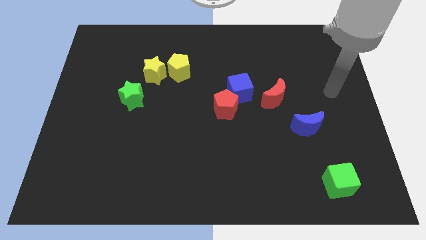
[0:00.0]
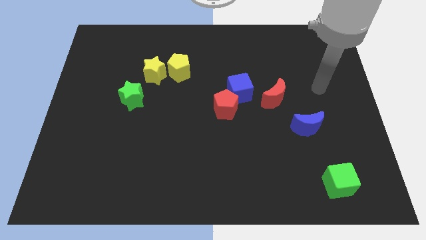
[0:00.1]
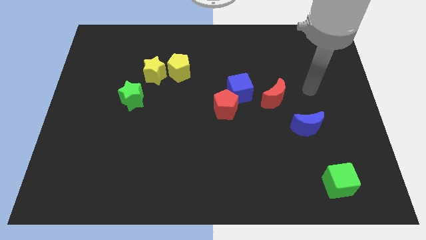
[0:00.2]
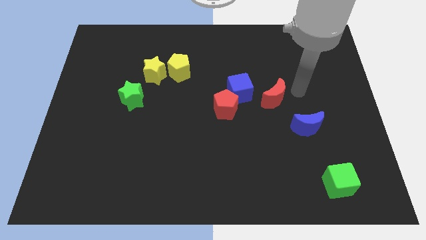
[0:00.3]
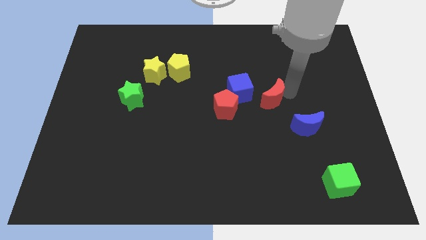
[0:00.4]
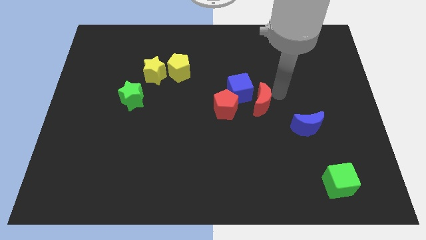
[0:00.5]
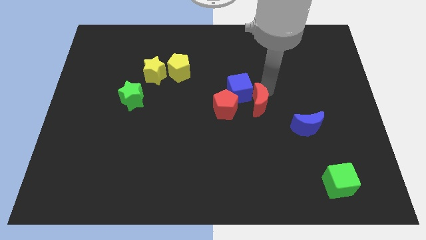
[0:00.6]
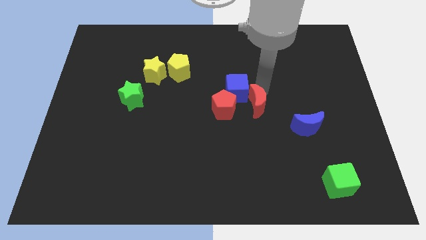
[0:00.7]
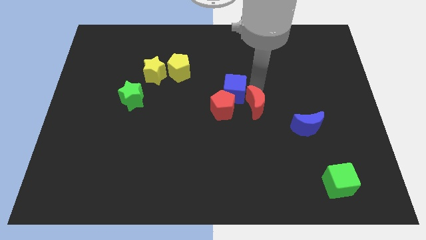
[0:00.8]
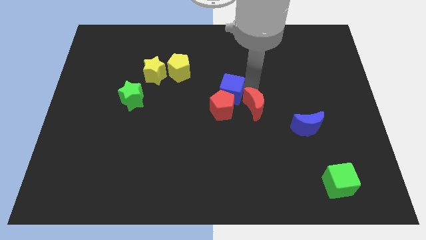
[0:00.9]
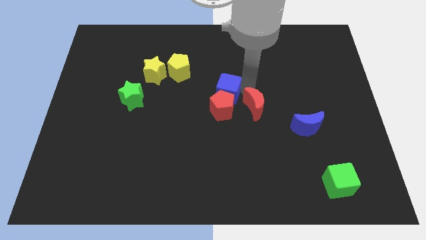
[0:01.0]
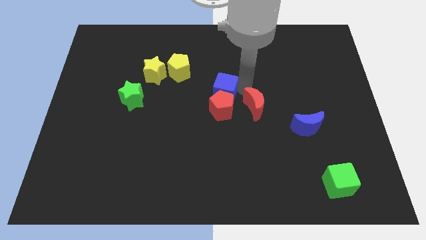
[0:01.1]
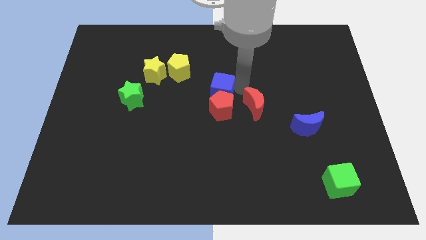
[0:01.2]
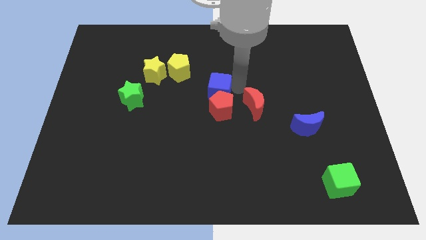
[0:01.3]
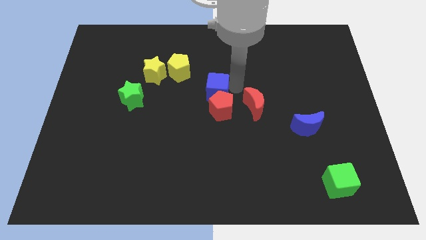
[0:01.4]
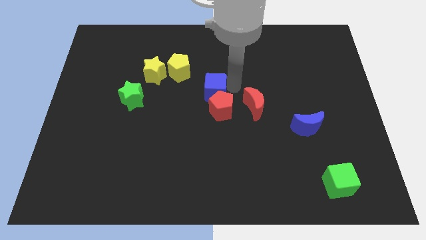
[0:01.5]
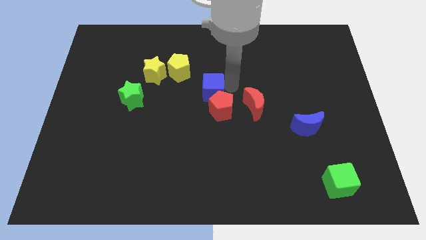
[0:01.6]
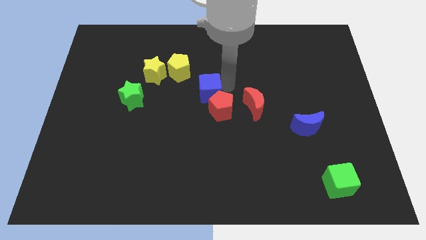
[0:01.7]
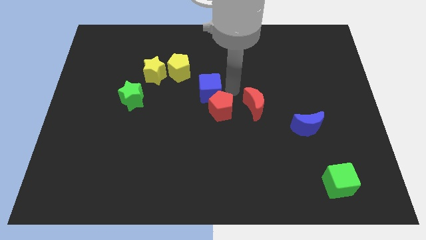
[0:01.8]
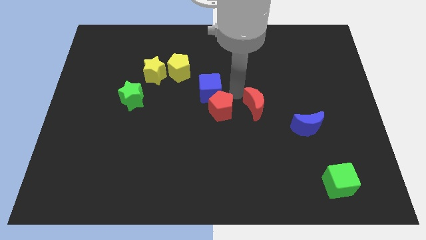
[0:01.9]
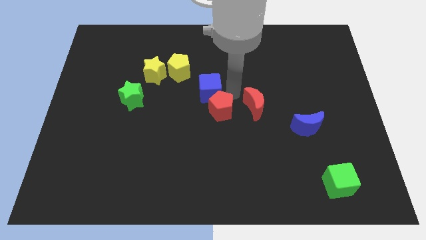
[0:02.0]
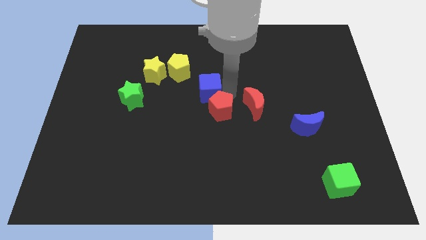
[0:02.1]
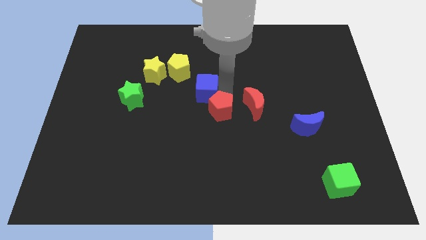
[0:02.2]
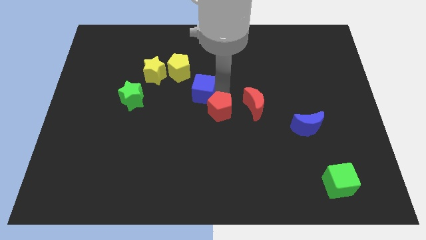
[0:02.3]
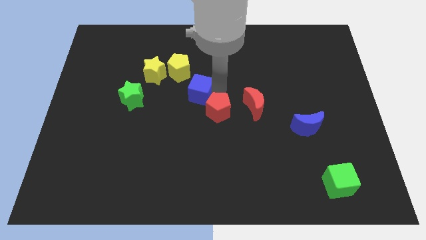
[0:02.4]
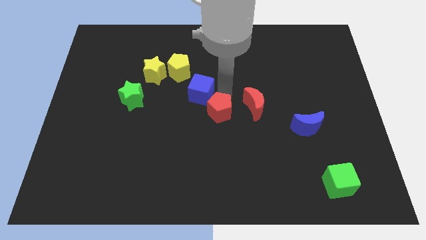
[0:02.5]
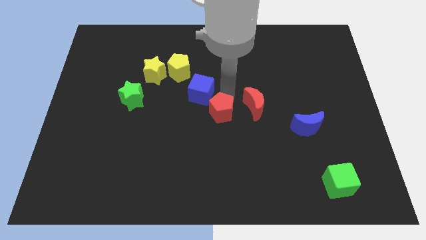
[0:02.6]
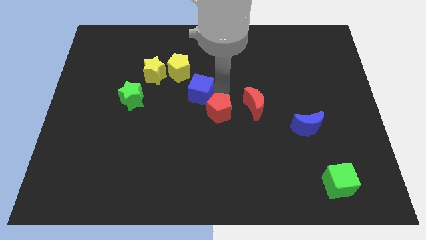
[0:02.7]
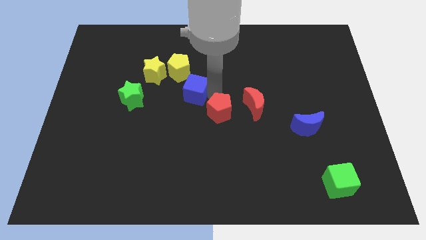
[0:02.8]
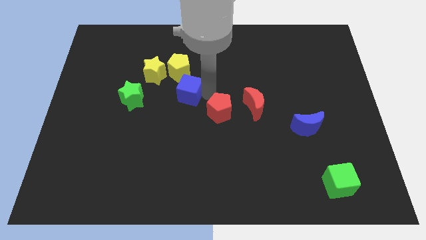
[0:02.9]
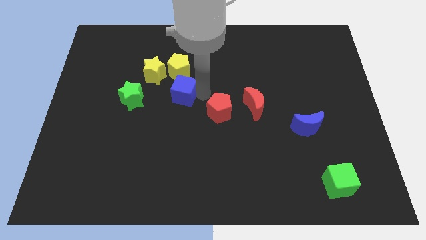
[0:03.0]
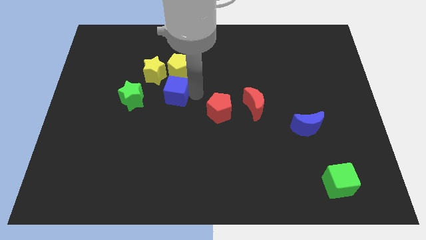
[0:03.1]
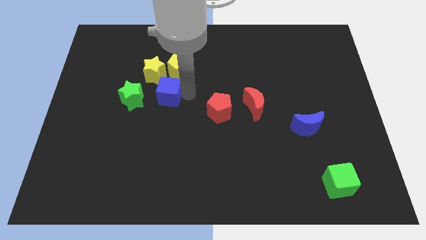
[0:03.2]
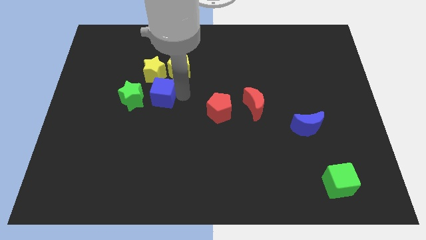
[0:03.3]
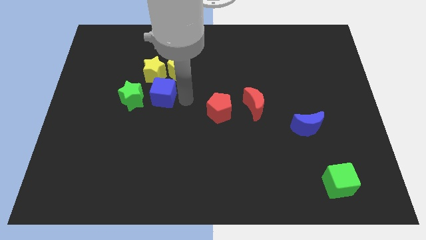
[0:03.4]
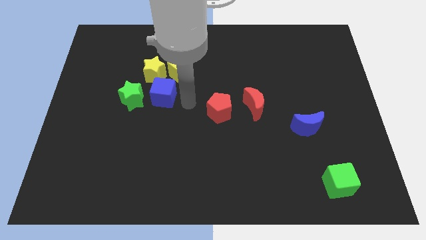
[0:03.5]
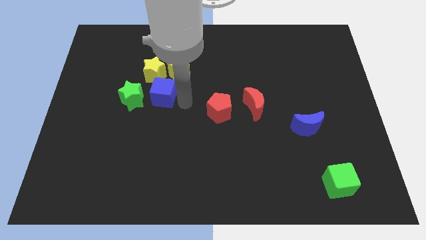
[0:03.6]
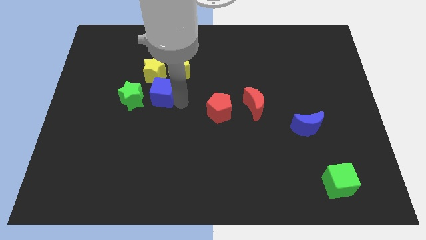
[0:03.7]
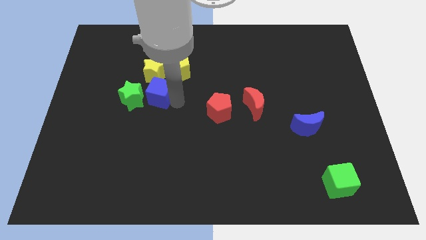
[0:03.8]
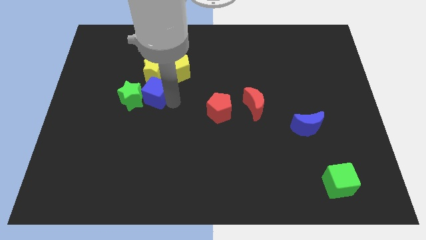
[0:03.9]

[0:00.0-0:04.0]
slide the blue cube to the left

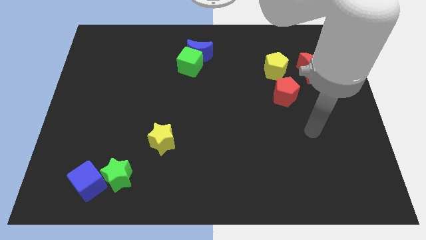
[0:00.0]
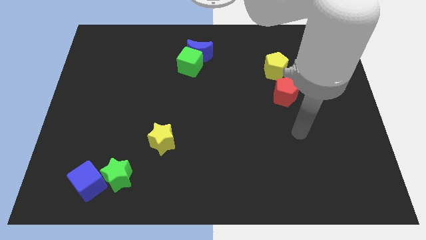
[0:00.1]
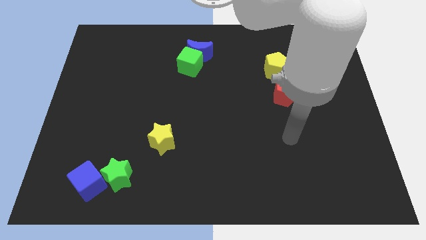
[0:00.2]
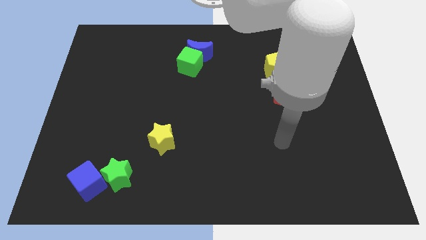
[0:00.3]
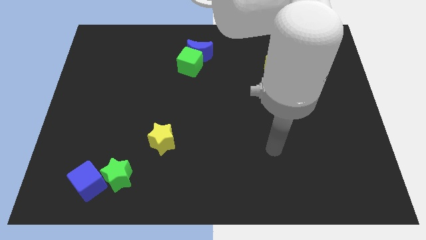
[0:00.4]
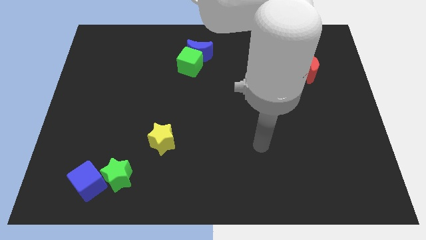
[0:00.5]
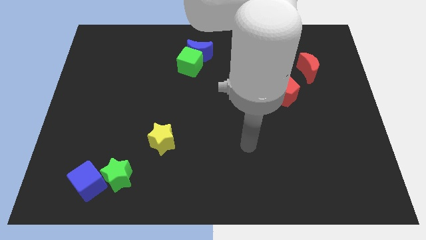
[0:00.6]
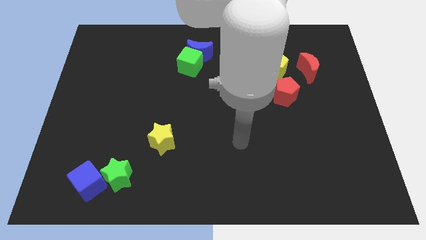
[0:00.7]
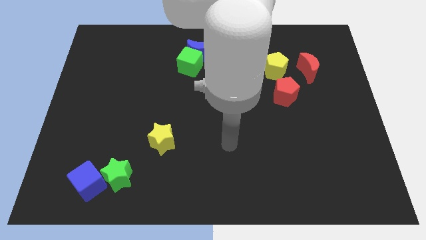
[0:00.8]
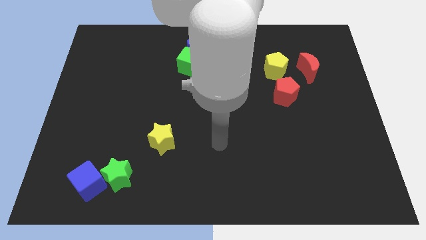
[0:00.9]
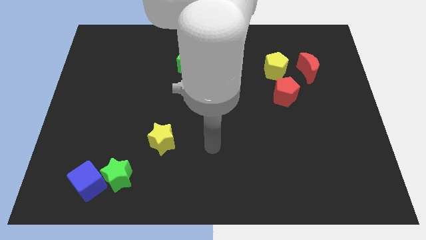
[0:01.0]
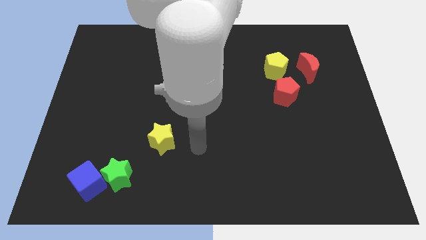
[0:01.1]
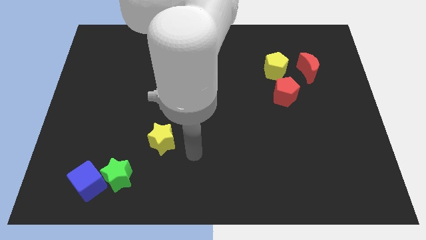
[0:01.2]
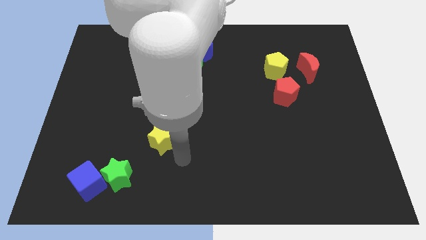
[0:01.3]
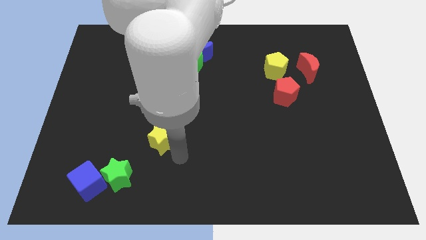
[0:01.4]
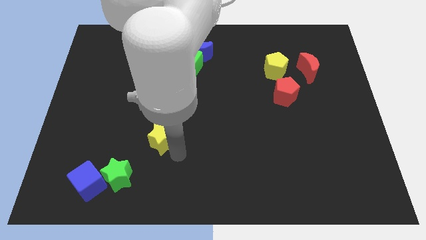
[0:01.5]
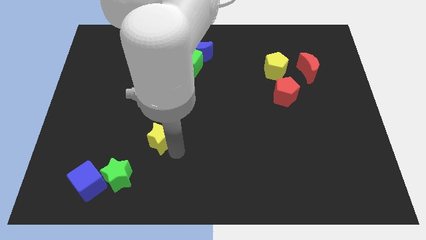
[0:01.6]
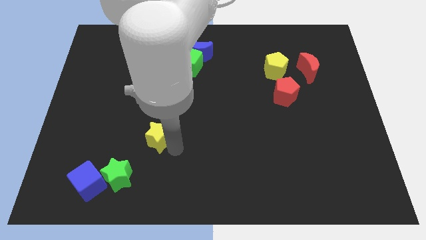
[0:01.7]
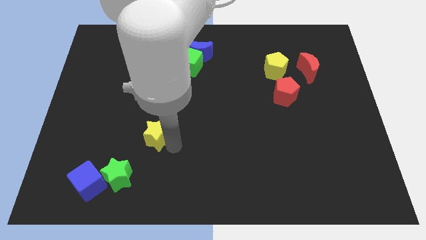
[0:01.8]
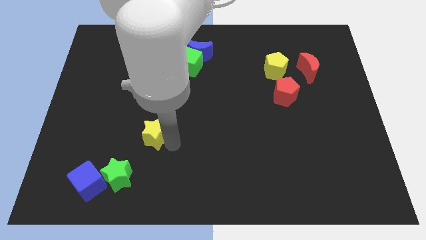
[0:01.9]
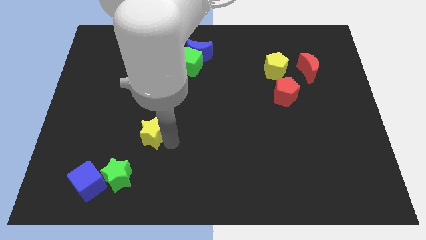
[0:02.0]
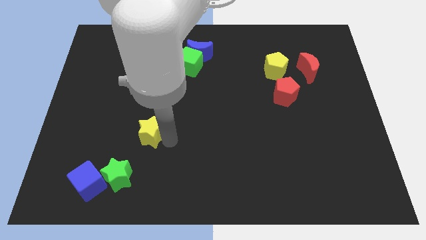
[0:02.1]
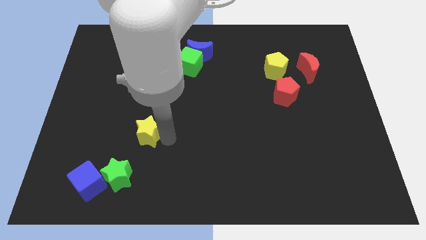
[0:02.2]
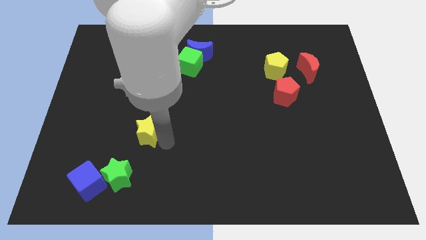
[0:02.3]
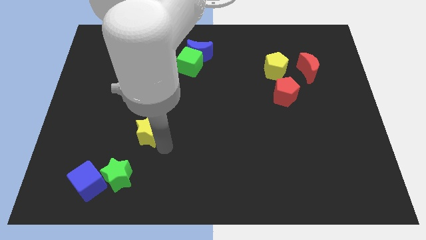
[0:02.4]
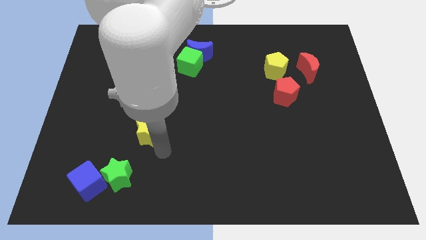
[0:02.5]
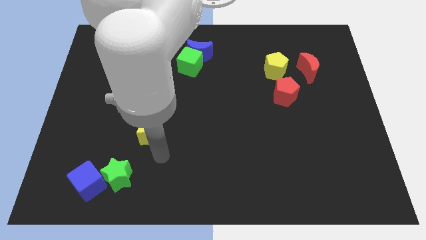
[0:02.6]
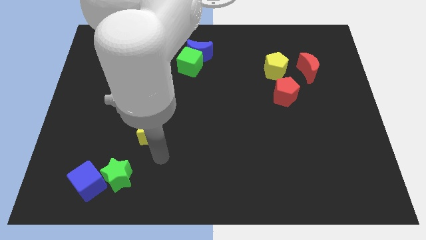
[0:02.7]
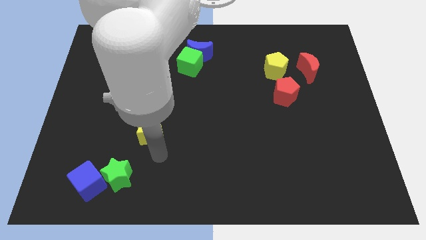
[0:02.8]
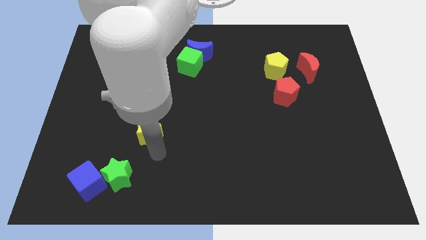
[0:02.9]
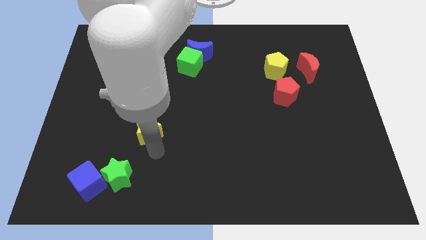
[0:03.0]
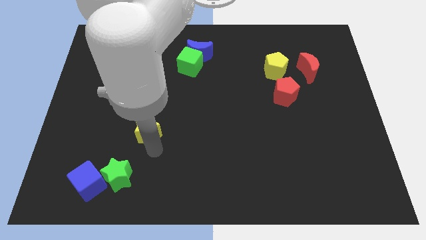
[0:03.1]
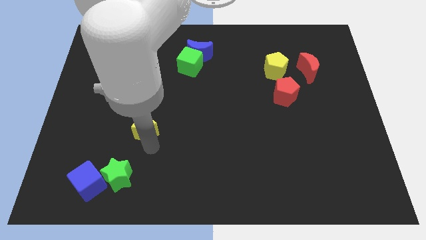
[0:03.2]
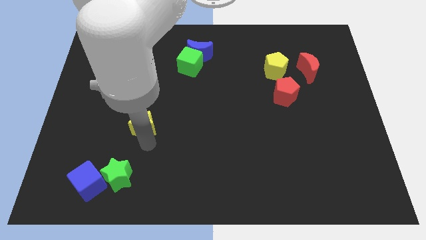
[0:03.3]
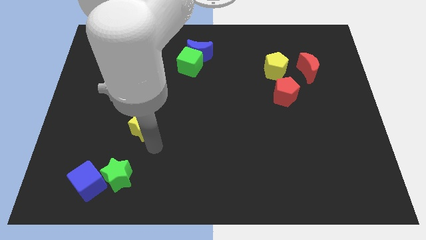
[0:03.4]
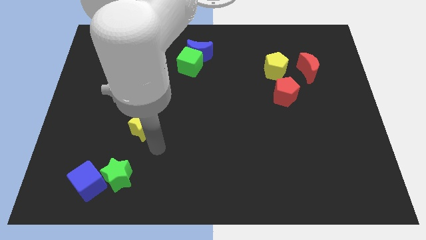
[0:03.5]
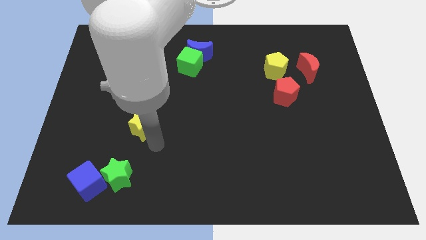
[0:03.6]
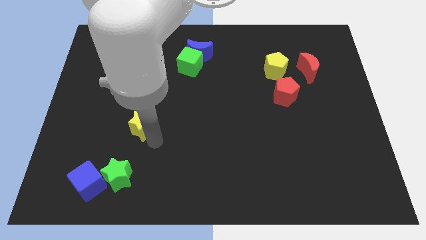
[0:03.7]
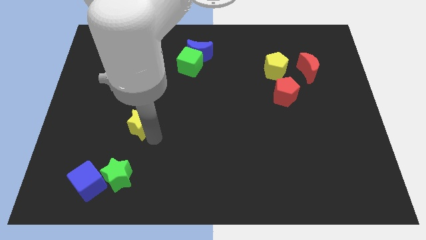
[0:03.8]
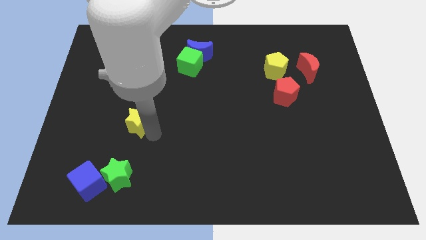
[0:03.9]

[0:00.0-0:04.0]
slightly push the yellow star up and to the left

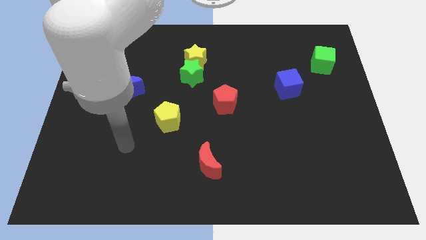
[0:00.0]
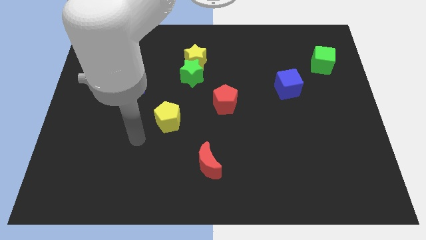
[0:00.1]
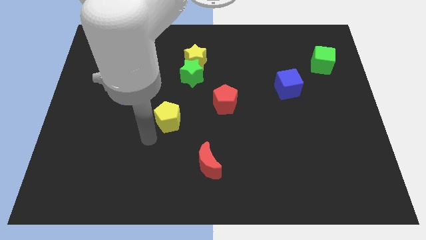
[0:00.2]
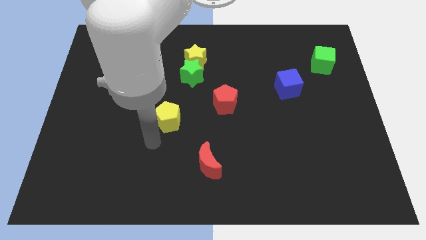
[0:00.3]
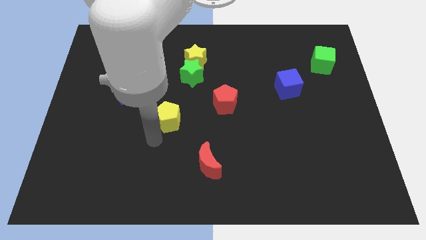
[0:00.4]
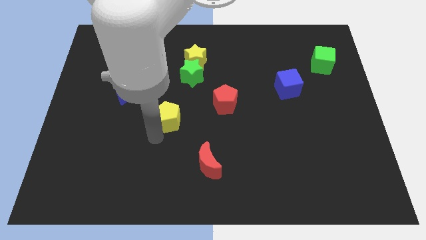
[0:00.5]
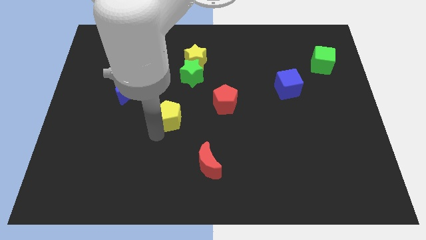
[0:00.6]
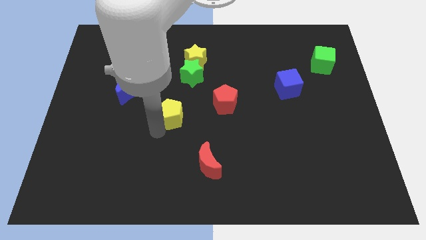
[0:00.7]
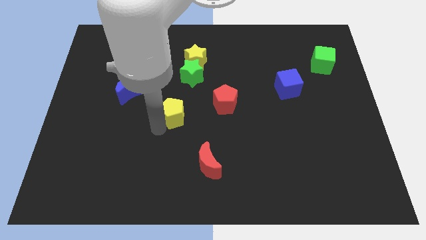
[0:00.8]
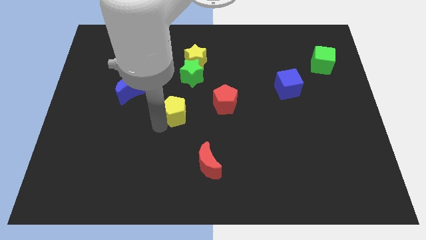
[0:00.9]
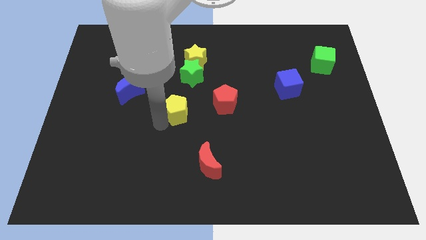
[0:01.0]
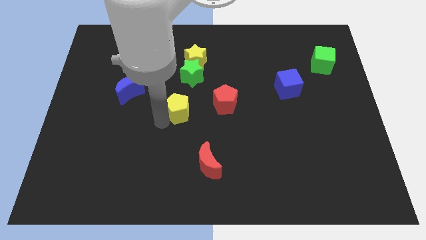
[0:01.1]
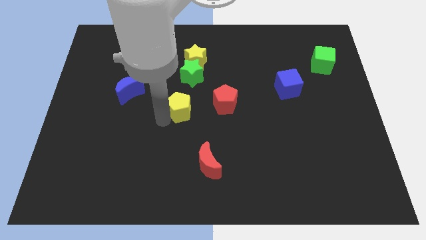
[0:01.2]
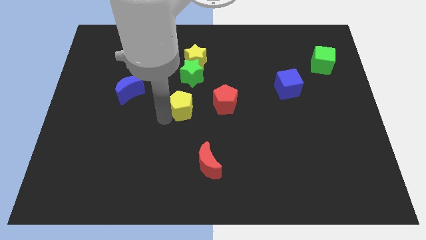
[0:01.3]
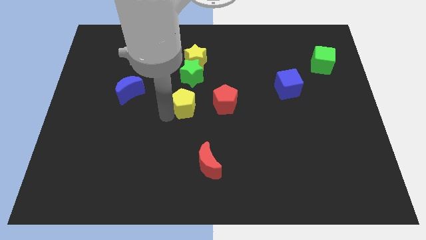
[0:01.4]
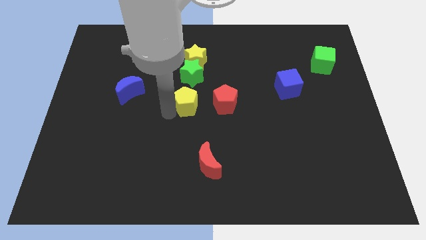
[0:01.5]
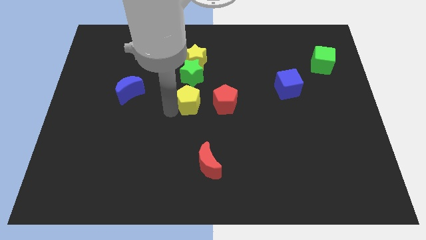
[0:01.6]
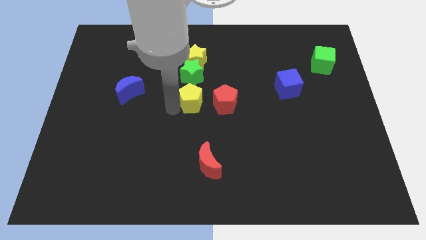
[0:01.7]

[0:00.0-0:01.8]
push the yellow pentagon a bit diagonally up and right
